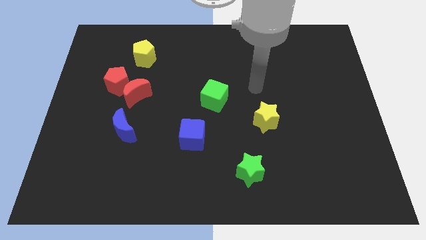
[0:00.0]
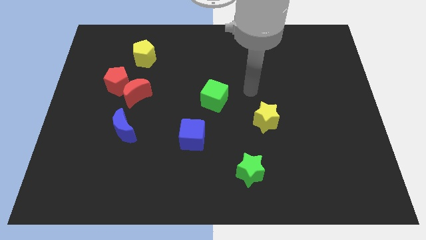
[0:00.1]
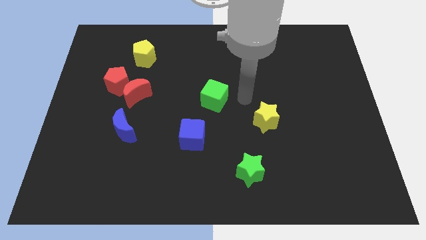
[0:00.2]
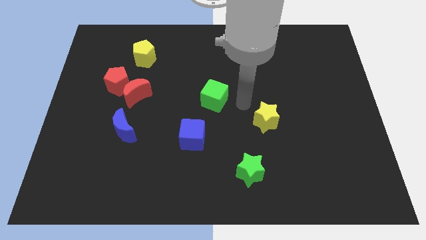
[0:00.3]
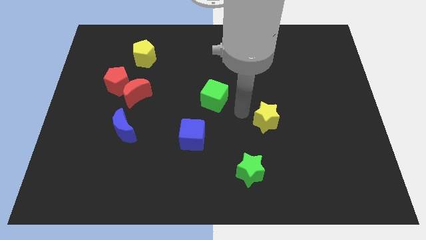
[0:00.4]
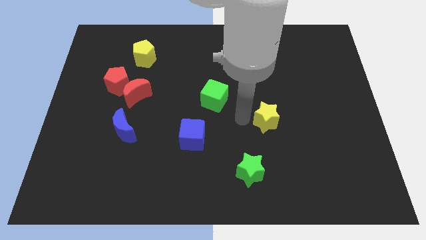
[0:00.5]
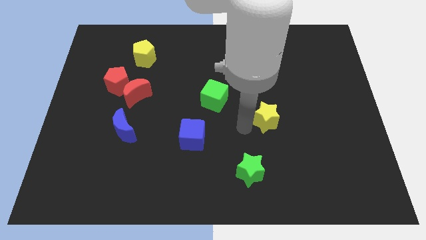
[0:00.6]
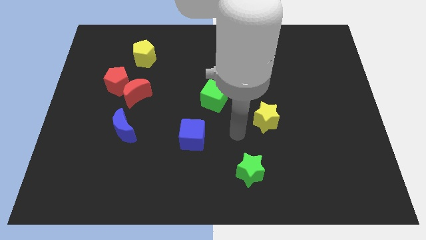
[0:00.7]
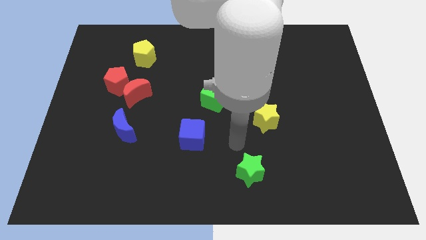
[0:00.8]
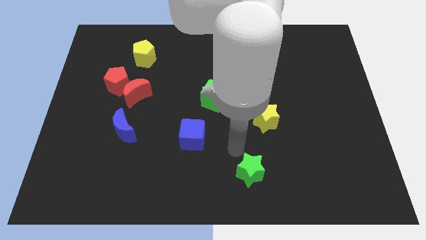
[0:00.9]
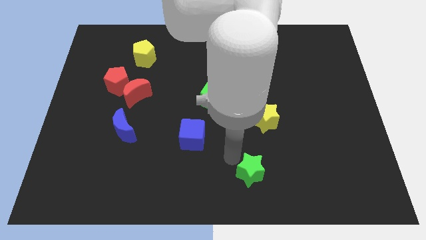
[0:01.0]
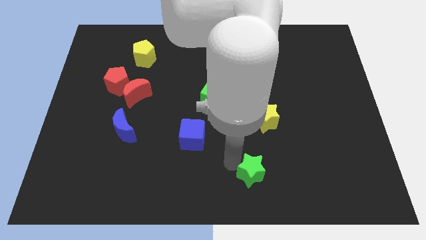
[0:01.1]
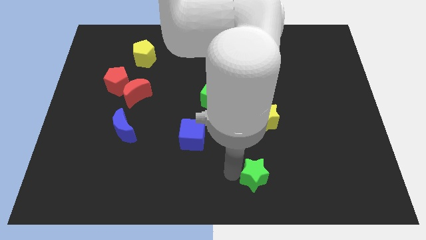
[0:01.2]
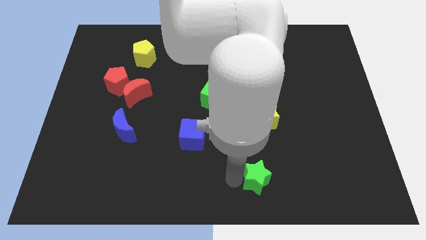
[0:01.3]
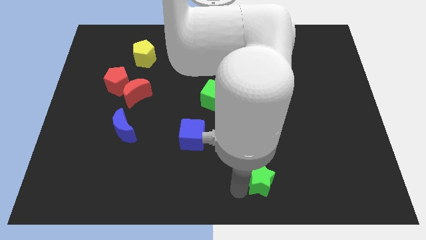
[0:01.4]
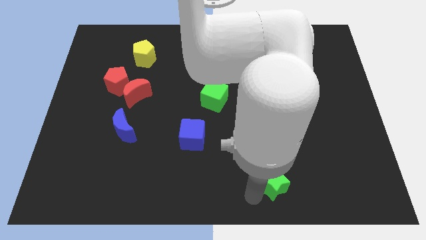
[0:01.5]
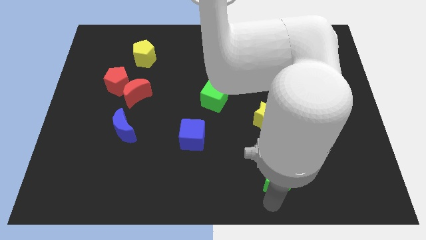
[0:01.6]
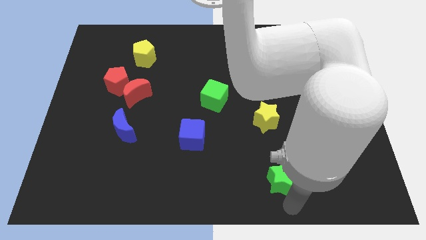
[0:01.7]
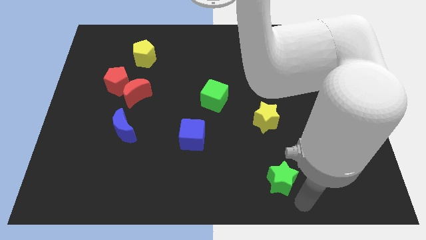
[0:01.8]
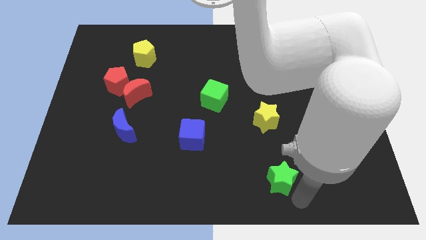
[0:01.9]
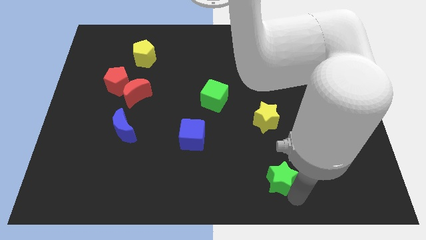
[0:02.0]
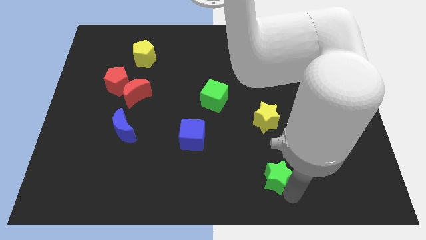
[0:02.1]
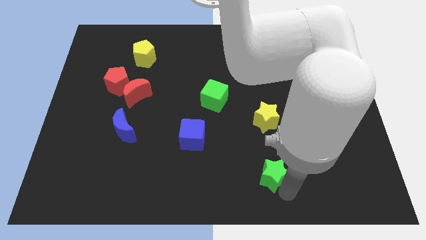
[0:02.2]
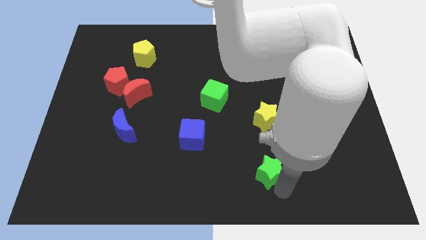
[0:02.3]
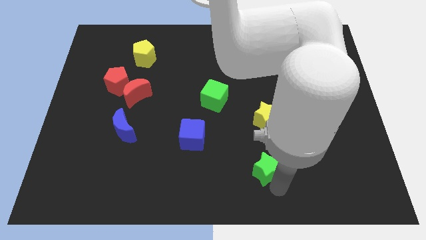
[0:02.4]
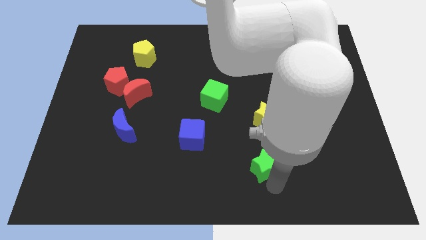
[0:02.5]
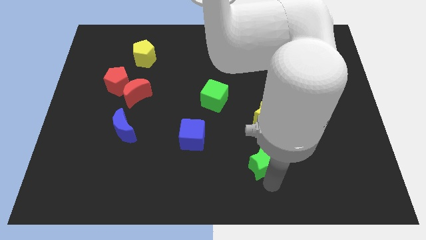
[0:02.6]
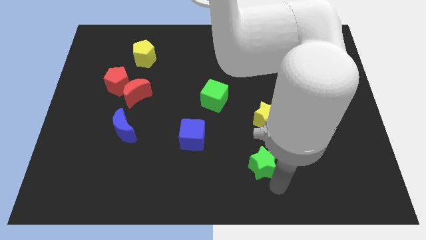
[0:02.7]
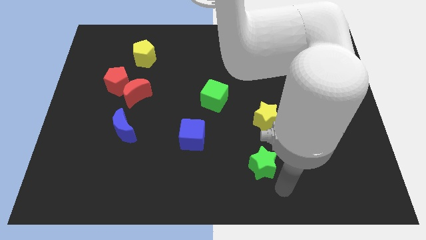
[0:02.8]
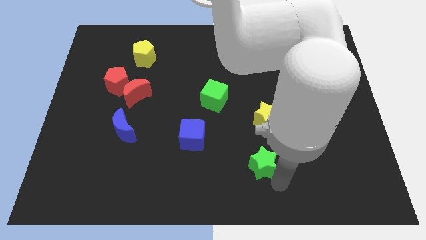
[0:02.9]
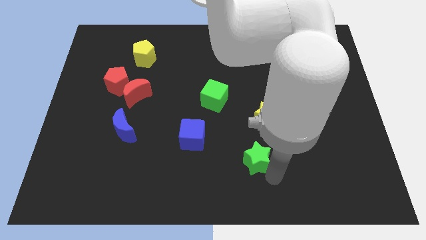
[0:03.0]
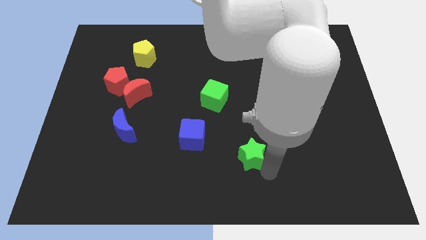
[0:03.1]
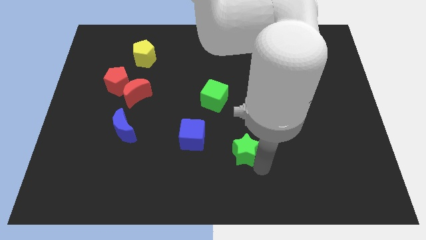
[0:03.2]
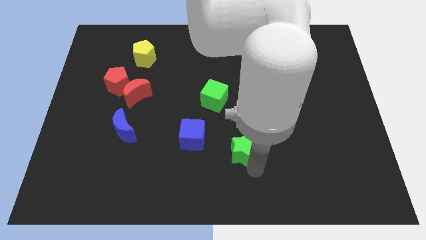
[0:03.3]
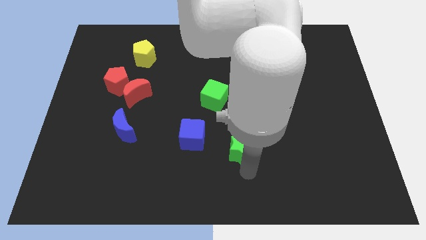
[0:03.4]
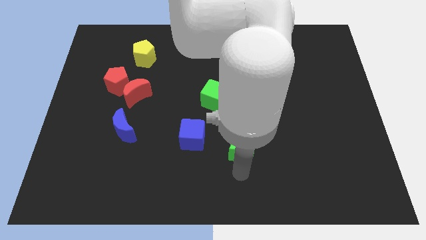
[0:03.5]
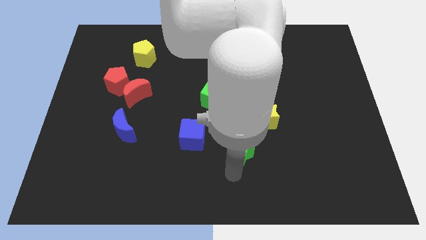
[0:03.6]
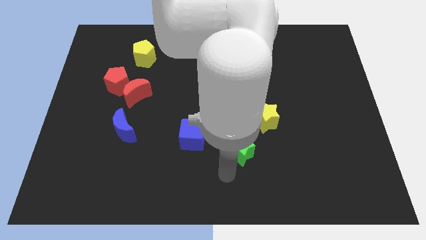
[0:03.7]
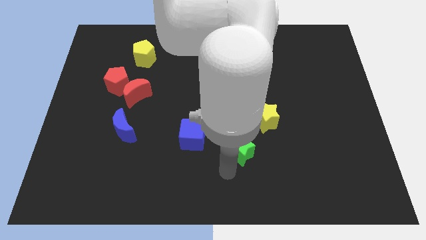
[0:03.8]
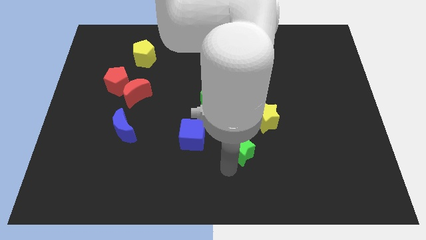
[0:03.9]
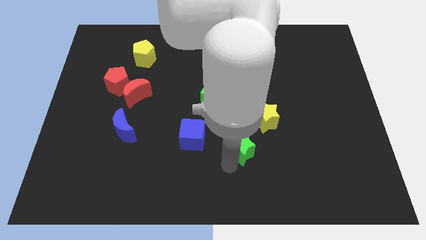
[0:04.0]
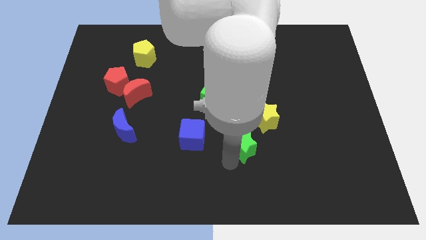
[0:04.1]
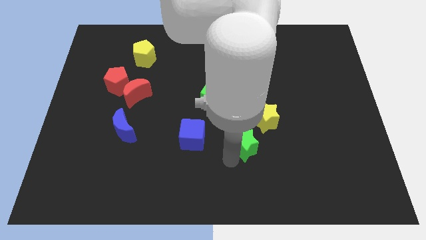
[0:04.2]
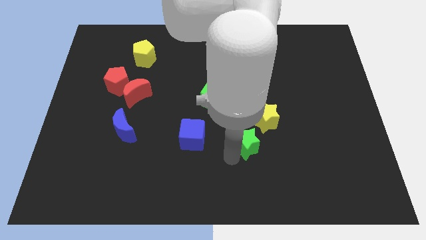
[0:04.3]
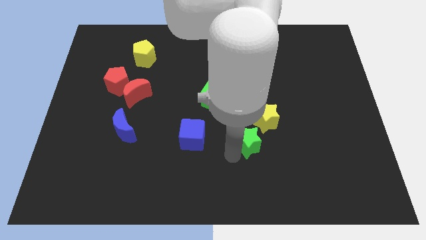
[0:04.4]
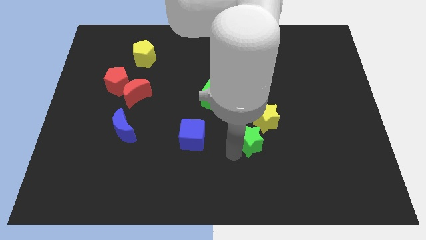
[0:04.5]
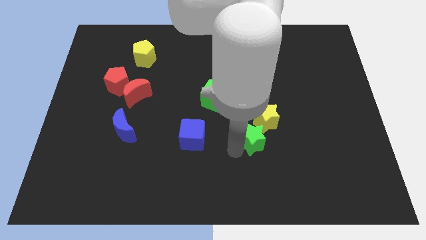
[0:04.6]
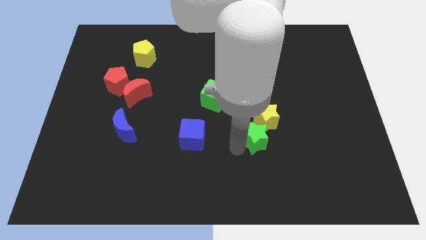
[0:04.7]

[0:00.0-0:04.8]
slide the green star towards the yellow star

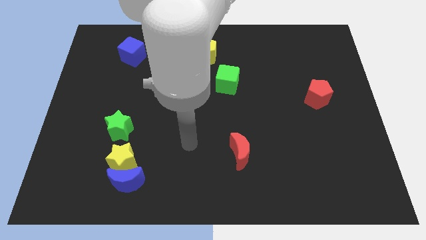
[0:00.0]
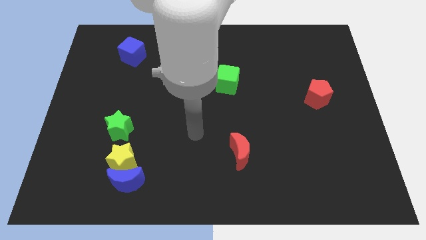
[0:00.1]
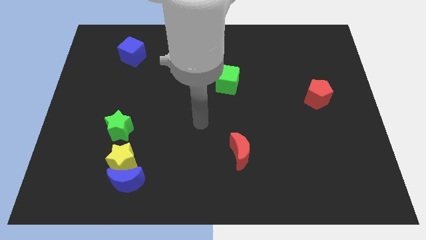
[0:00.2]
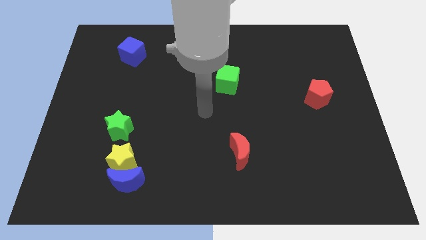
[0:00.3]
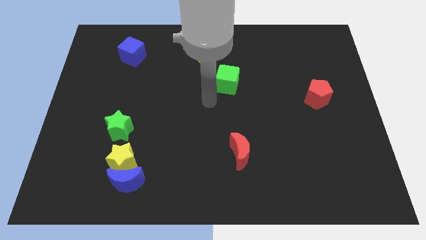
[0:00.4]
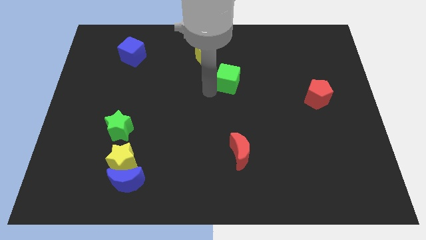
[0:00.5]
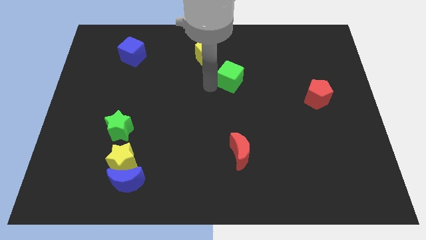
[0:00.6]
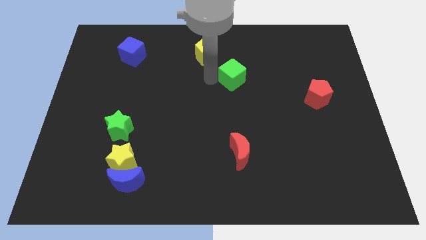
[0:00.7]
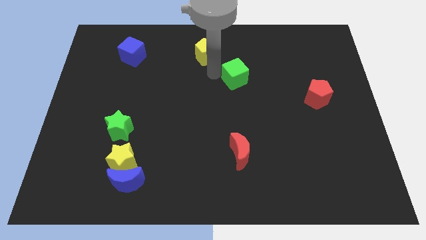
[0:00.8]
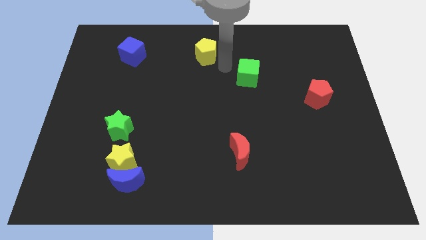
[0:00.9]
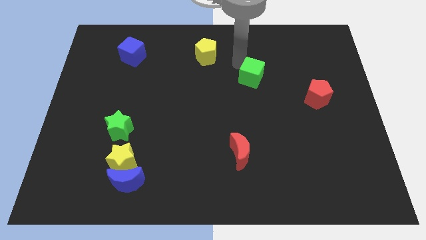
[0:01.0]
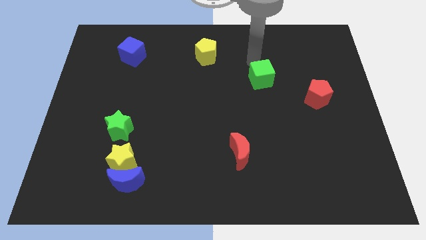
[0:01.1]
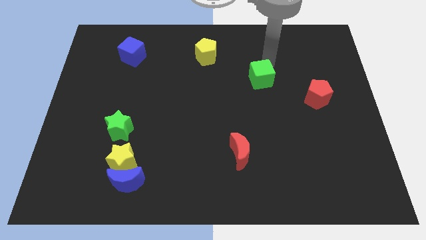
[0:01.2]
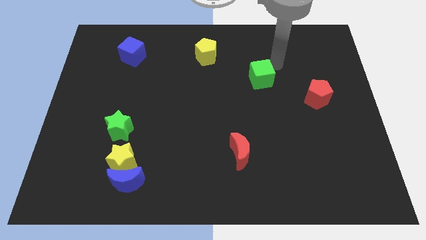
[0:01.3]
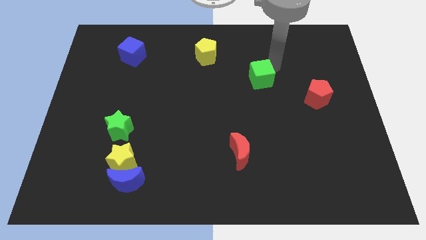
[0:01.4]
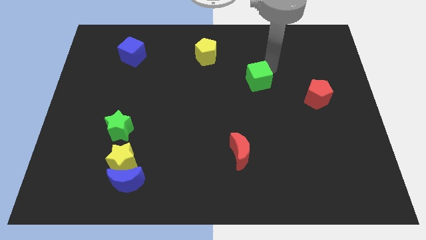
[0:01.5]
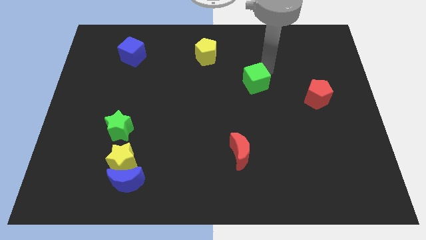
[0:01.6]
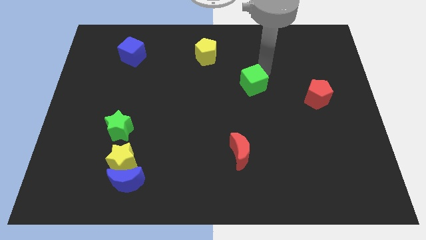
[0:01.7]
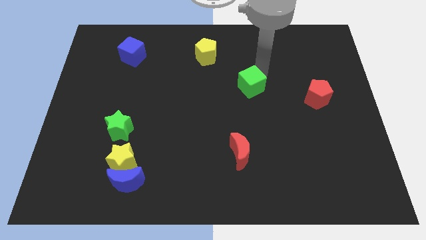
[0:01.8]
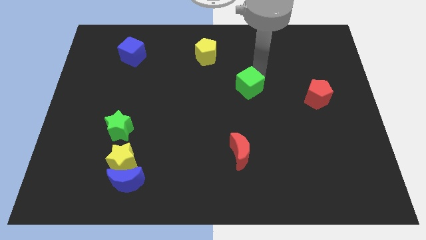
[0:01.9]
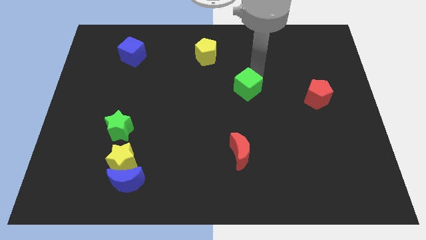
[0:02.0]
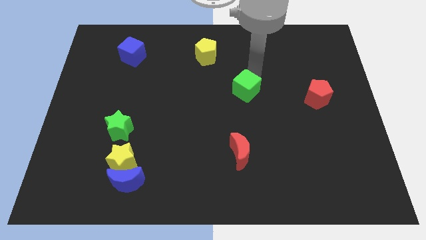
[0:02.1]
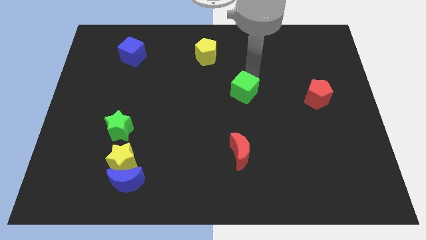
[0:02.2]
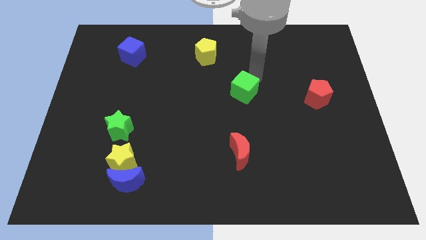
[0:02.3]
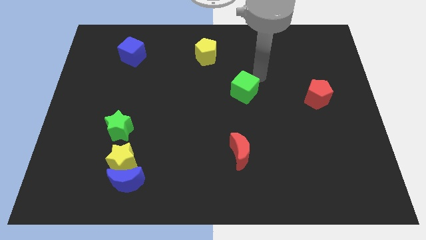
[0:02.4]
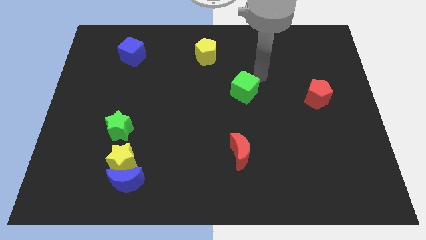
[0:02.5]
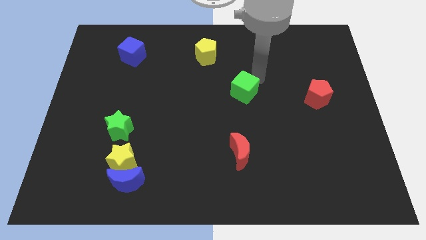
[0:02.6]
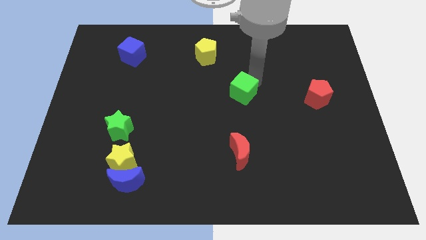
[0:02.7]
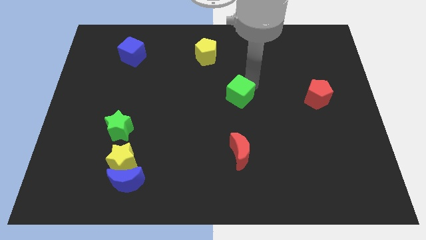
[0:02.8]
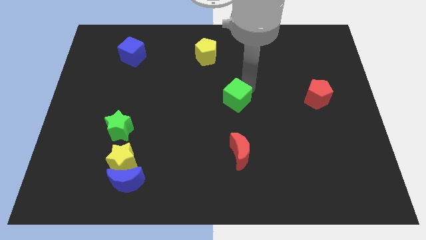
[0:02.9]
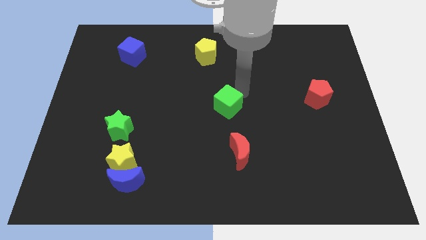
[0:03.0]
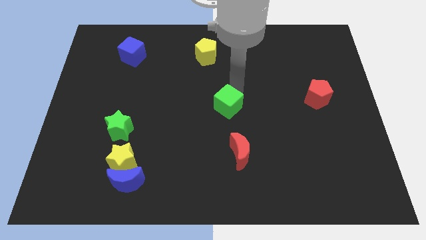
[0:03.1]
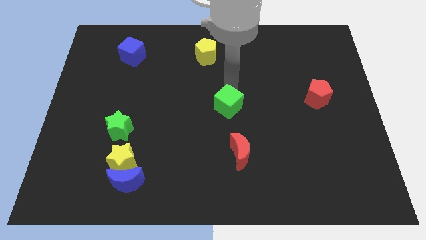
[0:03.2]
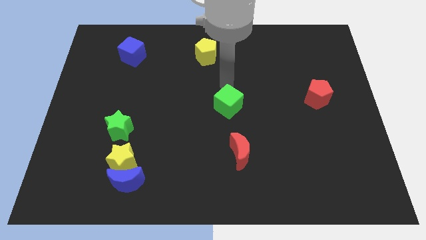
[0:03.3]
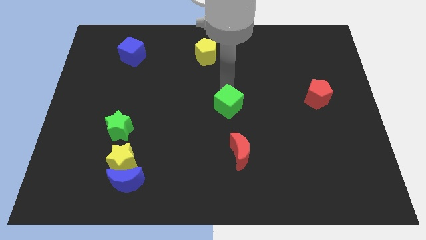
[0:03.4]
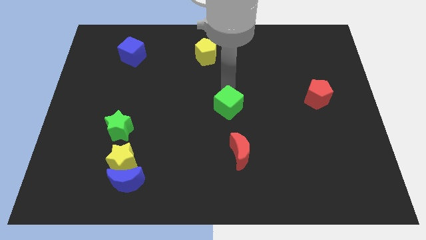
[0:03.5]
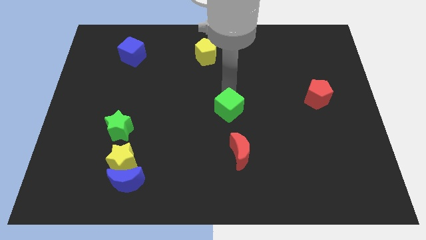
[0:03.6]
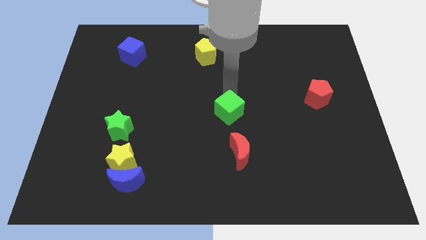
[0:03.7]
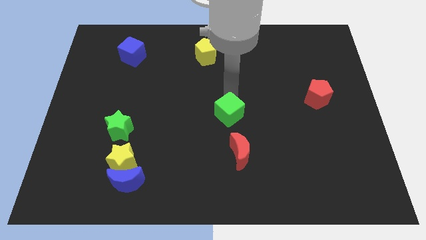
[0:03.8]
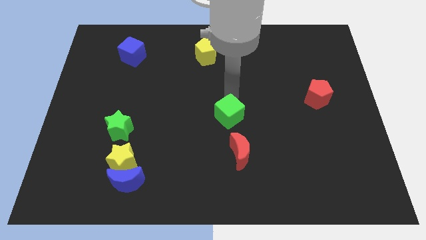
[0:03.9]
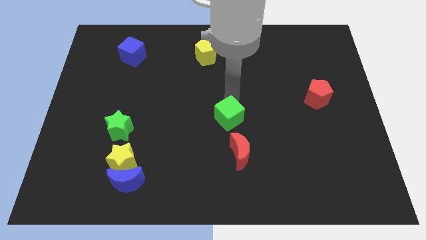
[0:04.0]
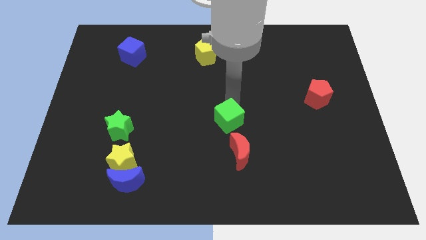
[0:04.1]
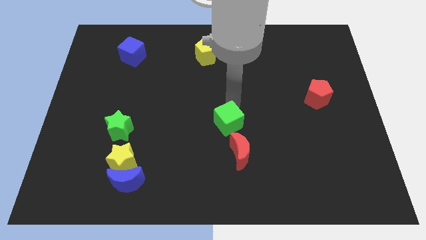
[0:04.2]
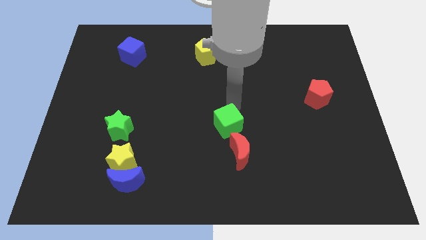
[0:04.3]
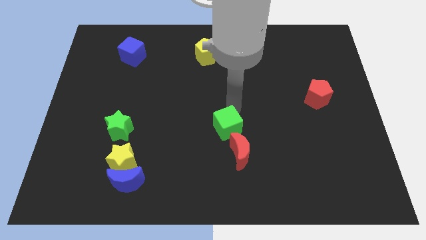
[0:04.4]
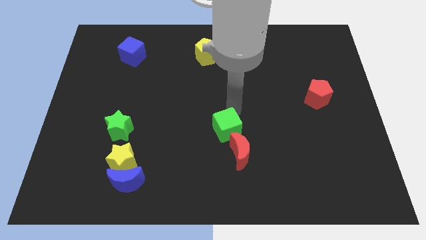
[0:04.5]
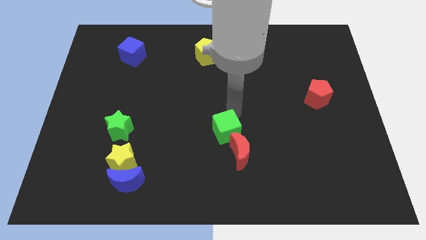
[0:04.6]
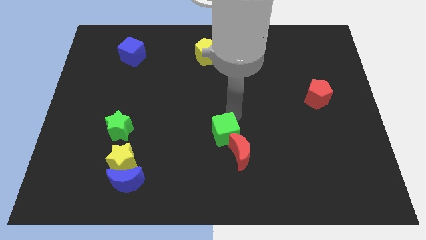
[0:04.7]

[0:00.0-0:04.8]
slide the green cube close to the red moon
